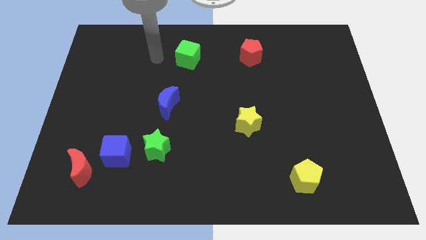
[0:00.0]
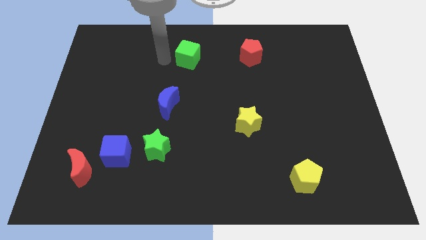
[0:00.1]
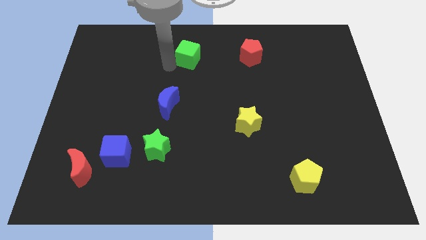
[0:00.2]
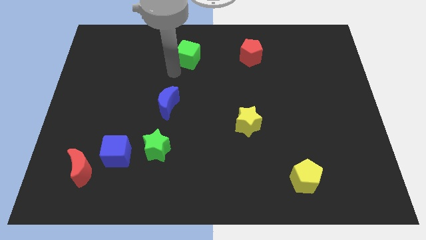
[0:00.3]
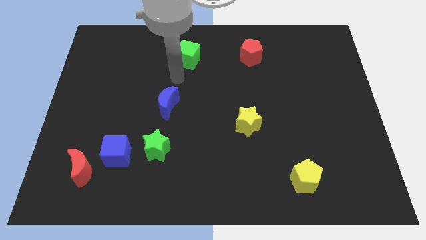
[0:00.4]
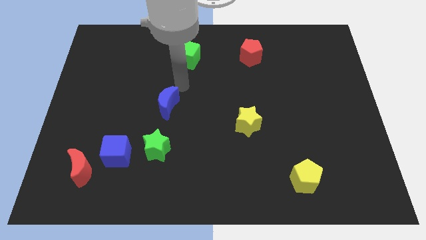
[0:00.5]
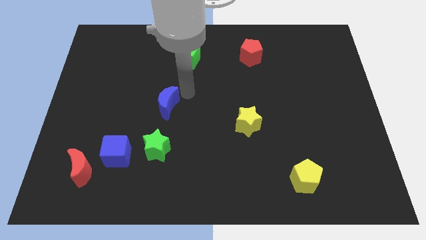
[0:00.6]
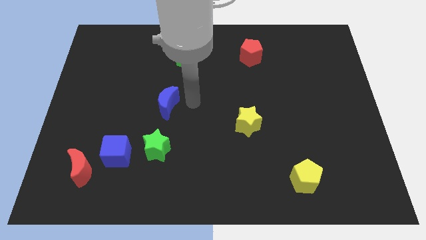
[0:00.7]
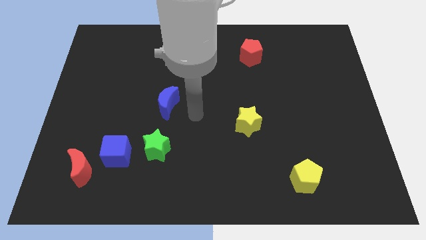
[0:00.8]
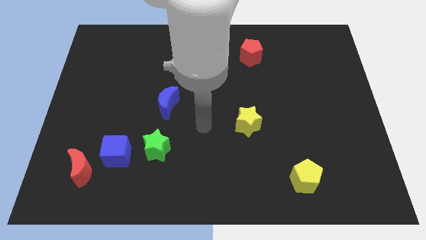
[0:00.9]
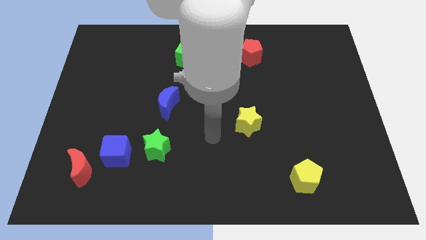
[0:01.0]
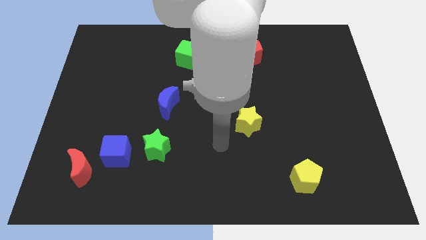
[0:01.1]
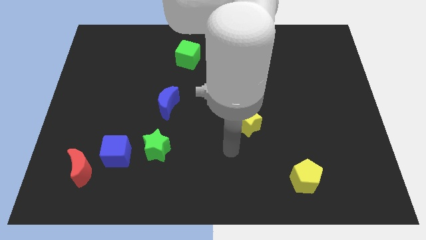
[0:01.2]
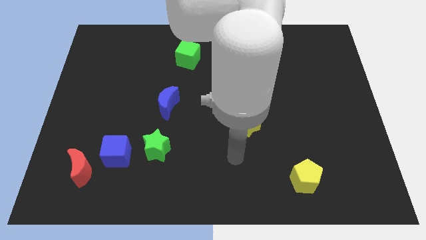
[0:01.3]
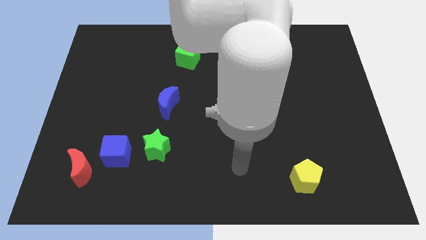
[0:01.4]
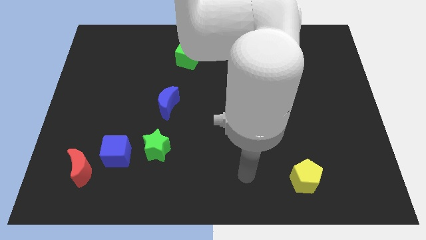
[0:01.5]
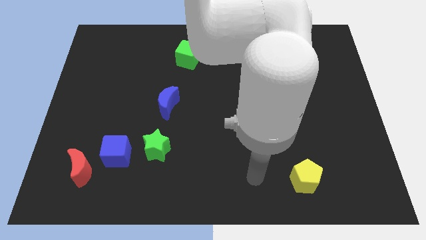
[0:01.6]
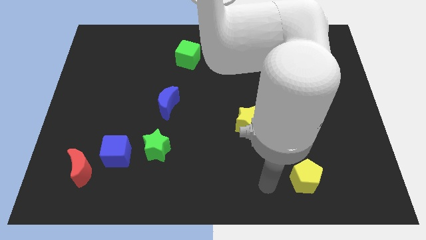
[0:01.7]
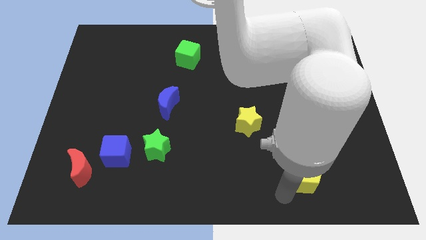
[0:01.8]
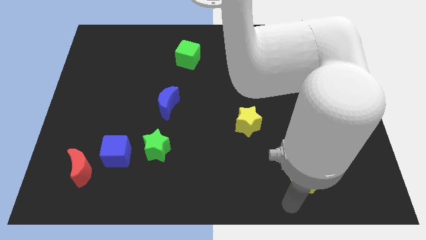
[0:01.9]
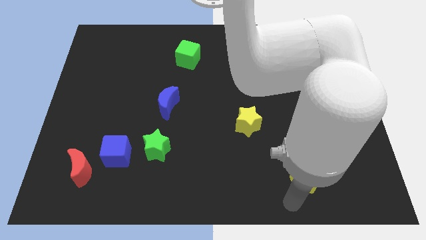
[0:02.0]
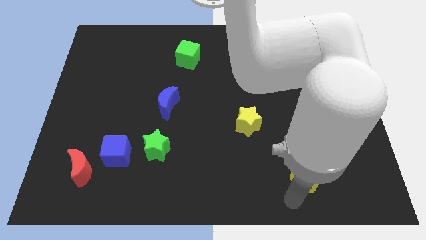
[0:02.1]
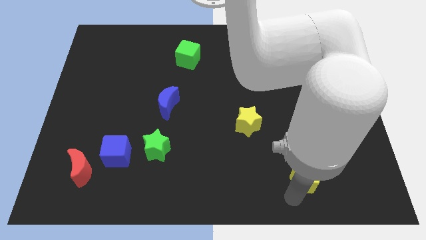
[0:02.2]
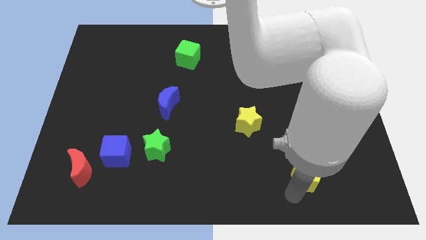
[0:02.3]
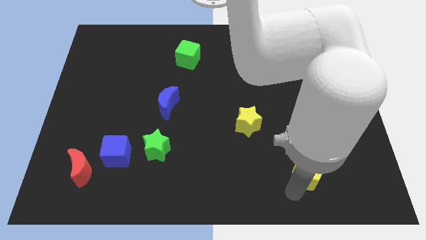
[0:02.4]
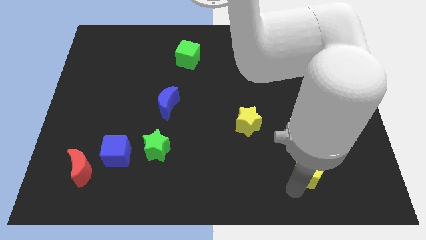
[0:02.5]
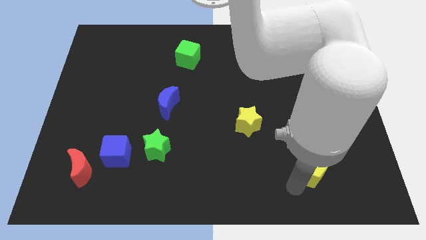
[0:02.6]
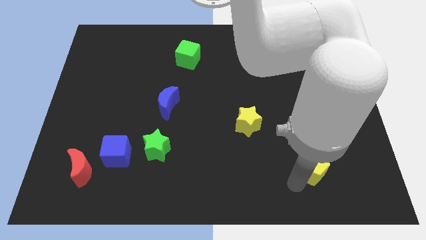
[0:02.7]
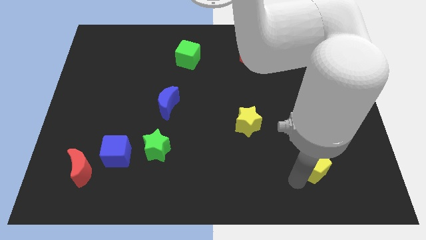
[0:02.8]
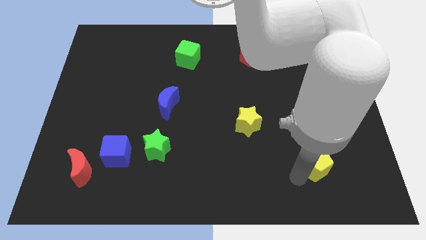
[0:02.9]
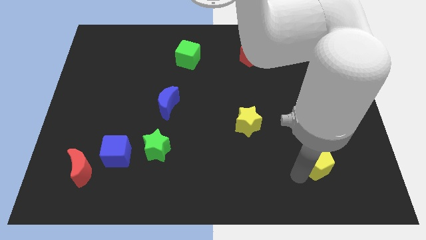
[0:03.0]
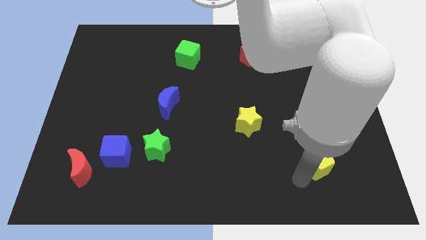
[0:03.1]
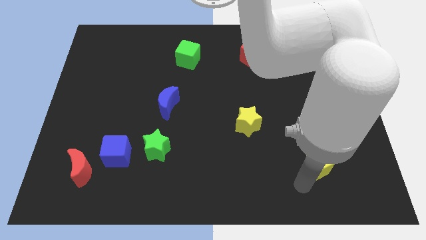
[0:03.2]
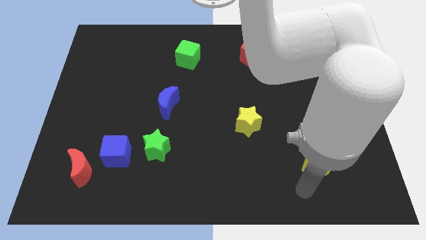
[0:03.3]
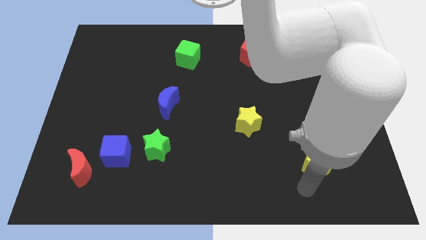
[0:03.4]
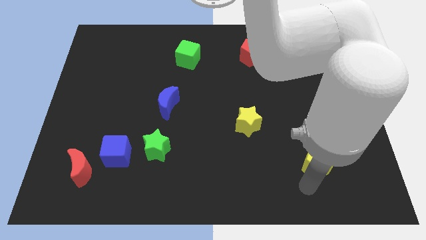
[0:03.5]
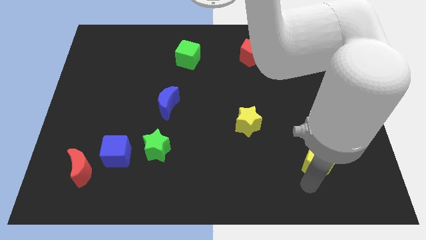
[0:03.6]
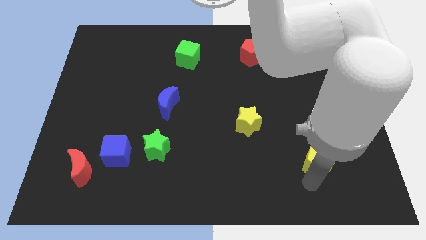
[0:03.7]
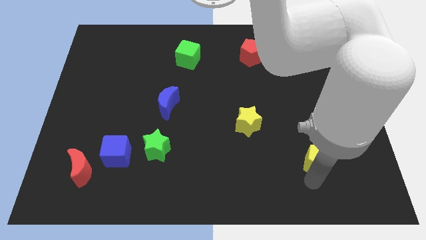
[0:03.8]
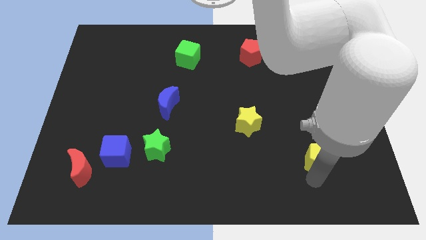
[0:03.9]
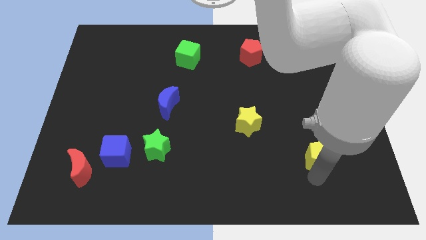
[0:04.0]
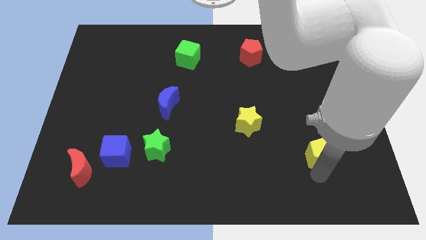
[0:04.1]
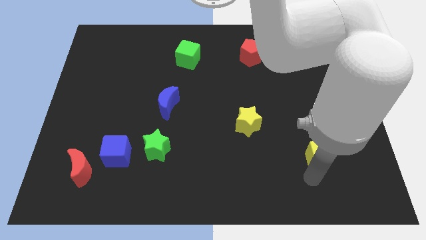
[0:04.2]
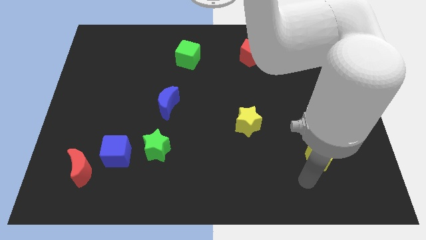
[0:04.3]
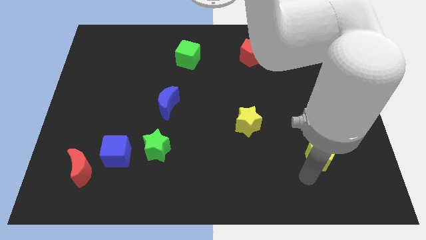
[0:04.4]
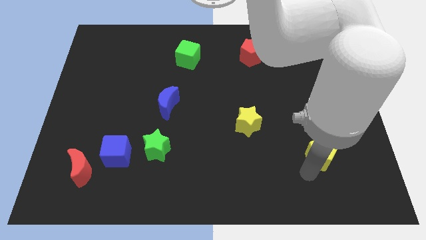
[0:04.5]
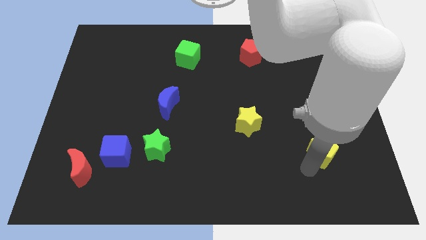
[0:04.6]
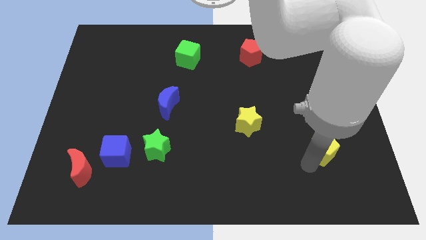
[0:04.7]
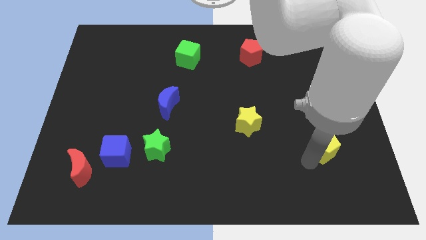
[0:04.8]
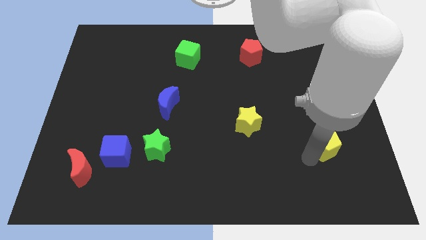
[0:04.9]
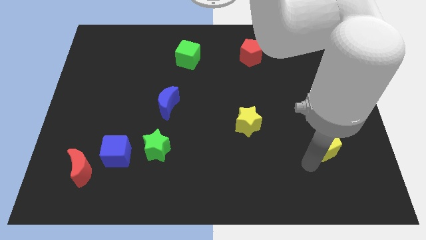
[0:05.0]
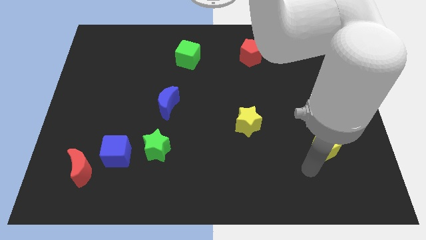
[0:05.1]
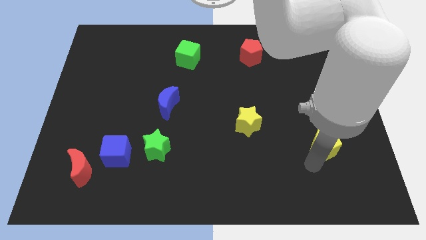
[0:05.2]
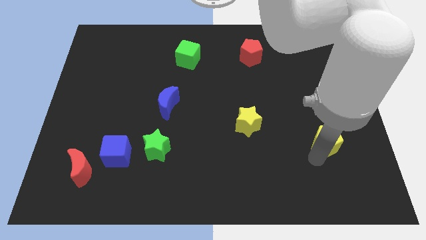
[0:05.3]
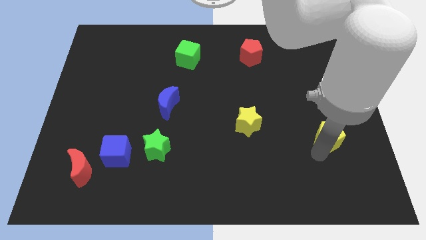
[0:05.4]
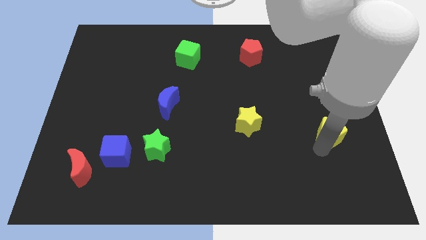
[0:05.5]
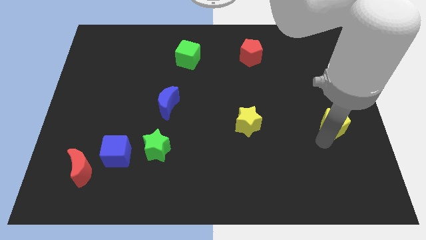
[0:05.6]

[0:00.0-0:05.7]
put the yellow pentagon to the center right
